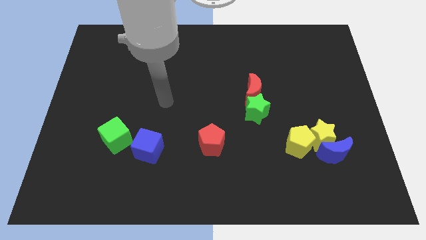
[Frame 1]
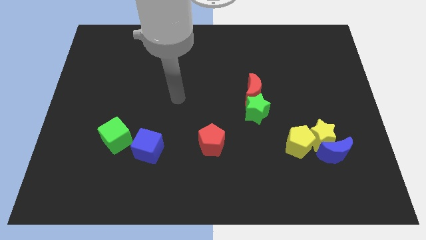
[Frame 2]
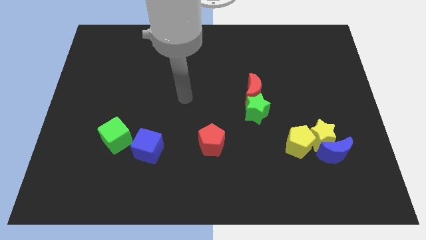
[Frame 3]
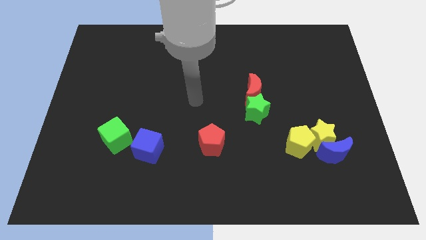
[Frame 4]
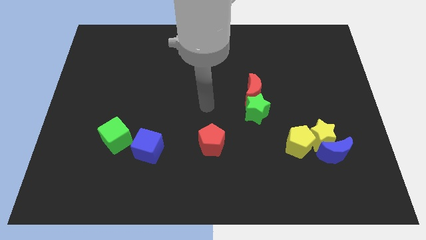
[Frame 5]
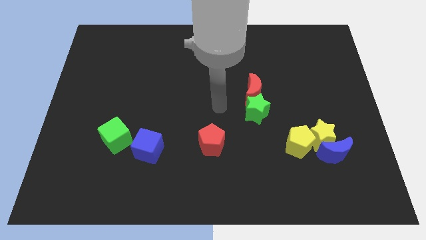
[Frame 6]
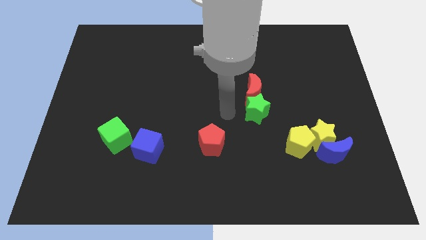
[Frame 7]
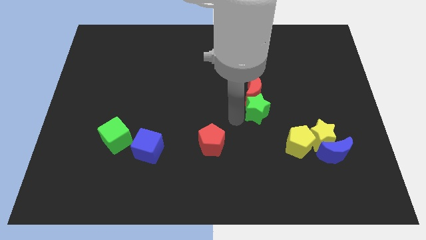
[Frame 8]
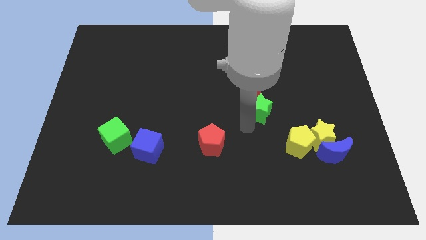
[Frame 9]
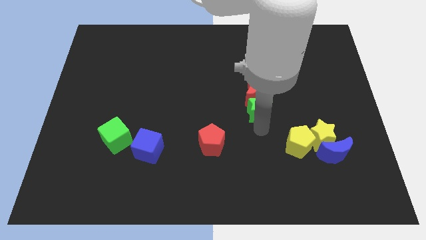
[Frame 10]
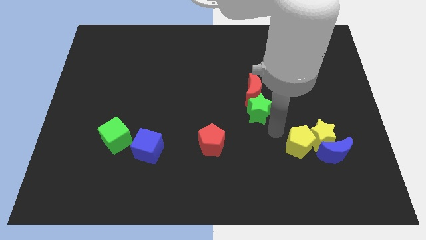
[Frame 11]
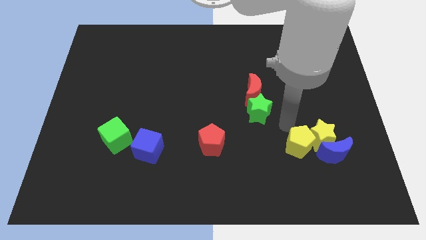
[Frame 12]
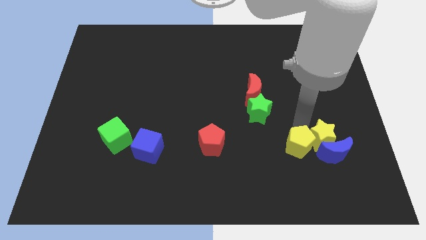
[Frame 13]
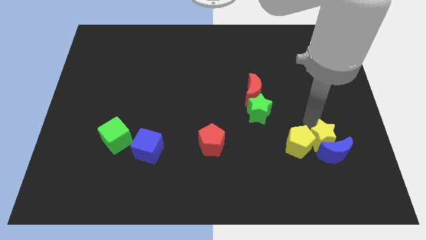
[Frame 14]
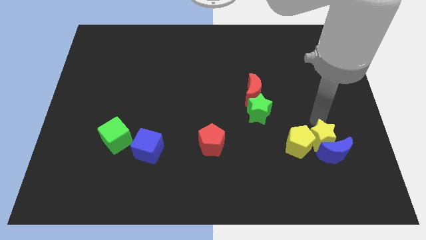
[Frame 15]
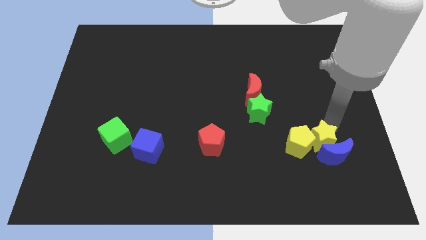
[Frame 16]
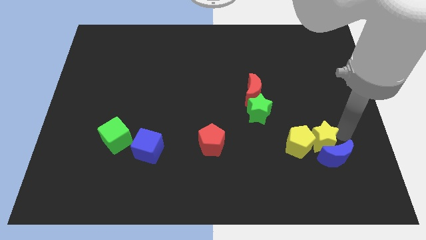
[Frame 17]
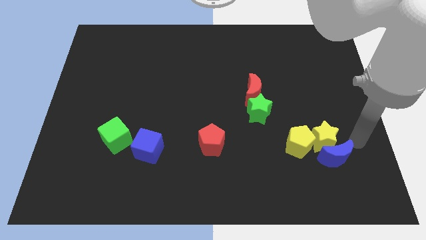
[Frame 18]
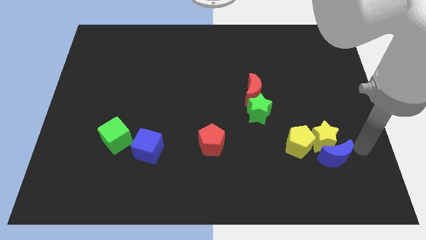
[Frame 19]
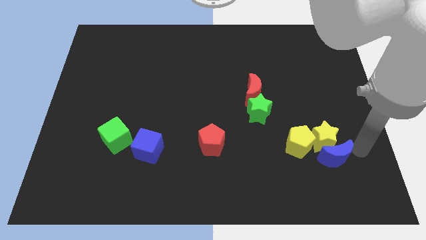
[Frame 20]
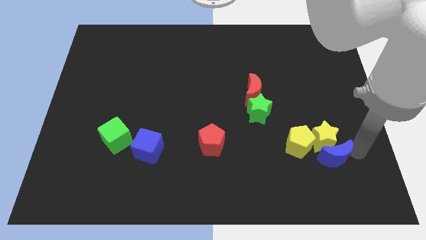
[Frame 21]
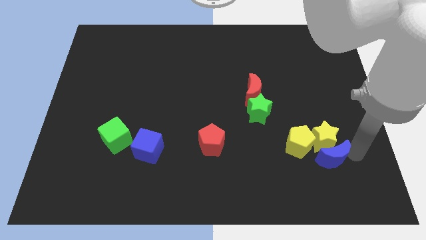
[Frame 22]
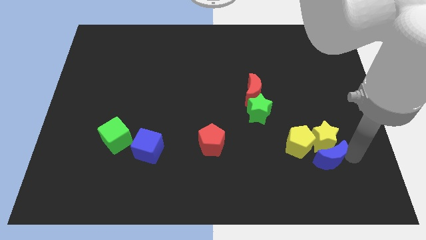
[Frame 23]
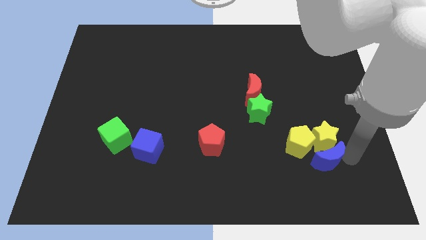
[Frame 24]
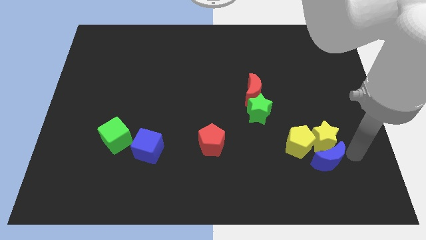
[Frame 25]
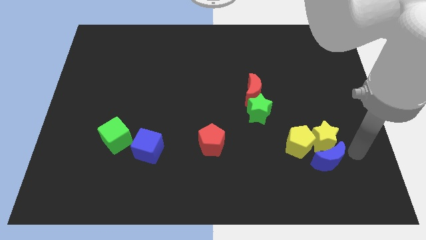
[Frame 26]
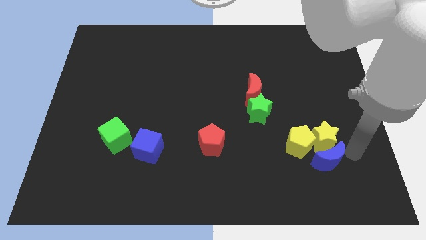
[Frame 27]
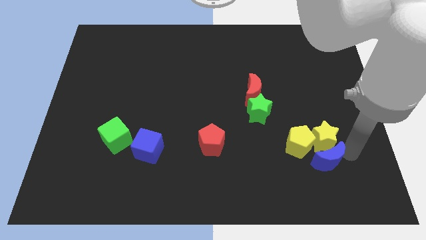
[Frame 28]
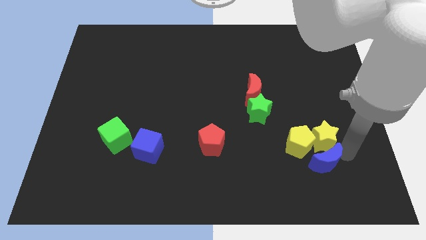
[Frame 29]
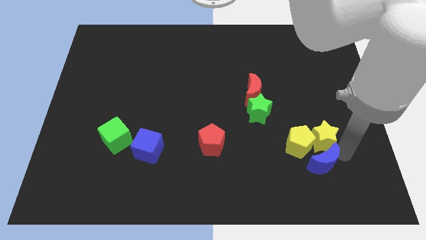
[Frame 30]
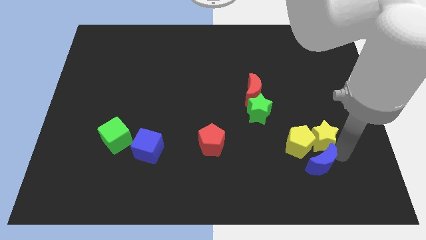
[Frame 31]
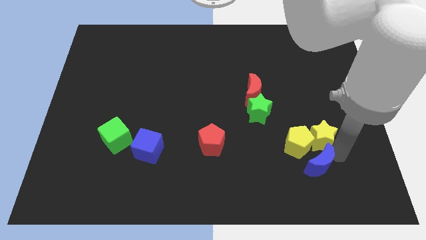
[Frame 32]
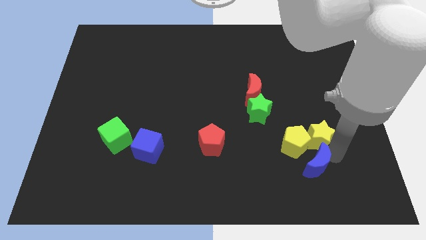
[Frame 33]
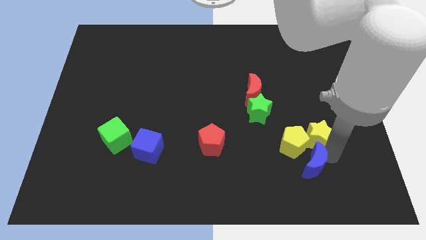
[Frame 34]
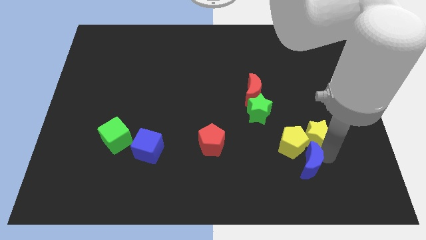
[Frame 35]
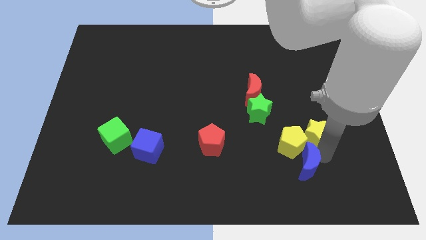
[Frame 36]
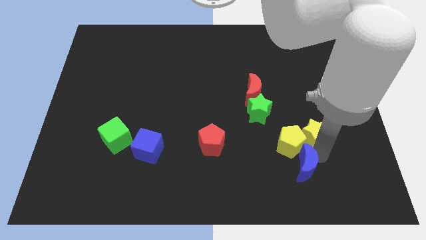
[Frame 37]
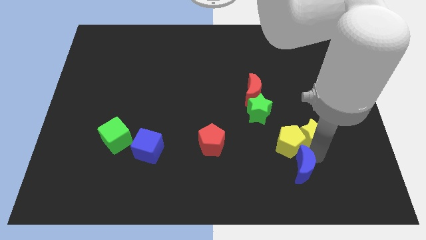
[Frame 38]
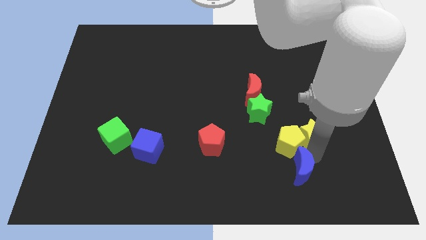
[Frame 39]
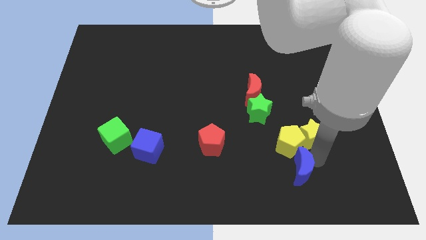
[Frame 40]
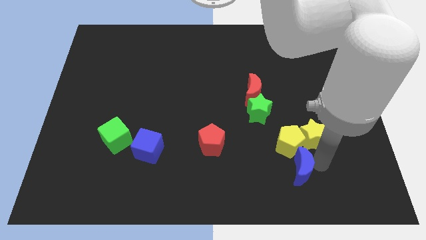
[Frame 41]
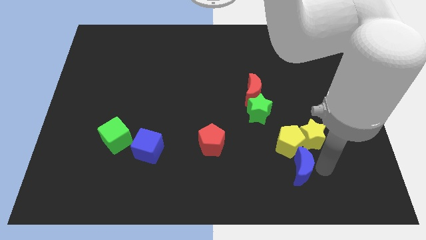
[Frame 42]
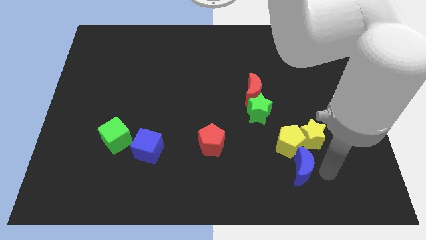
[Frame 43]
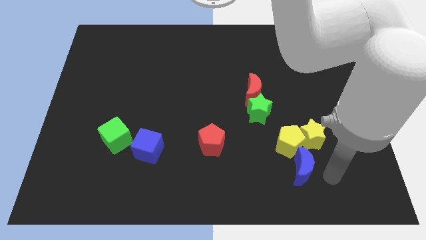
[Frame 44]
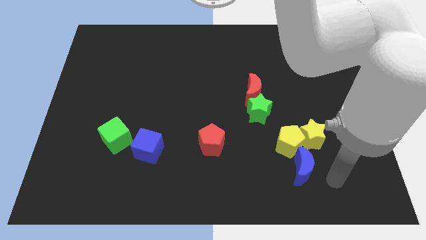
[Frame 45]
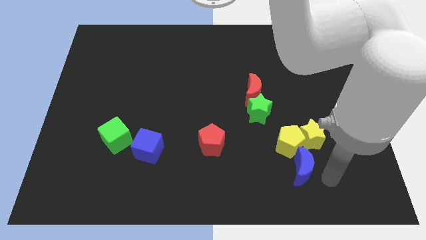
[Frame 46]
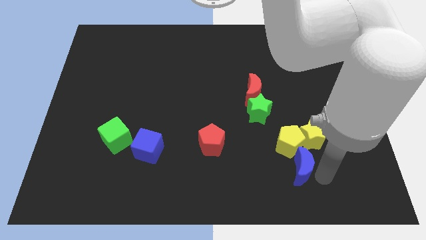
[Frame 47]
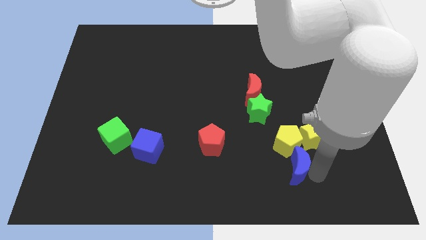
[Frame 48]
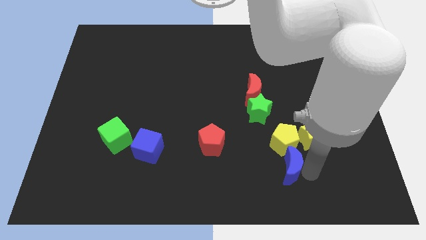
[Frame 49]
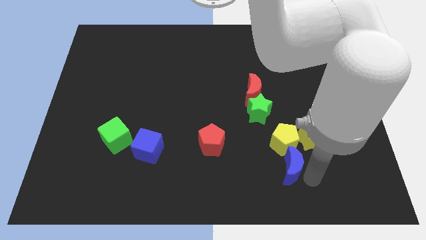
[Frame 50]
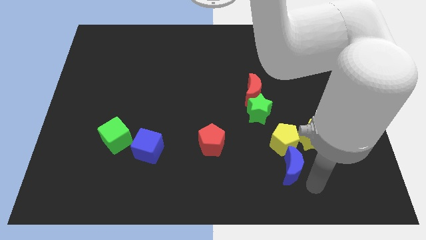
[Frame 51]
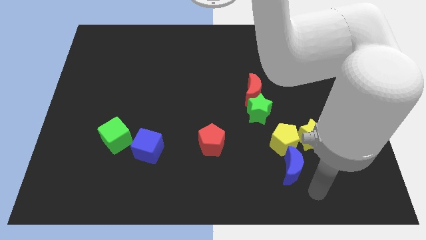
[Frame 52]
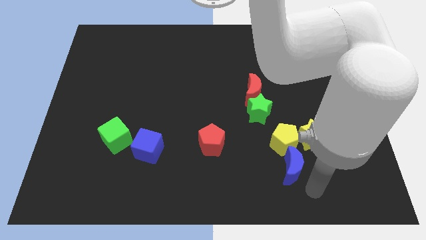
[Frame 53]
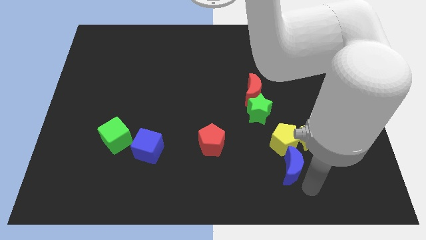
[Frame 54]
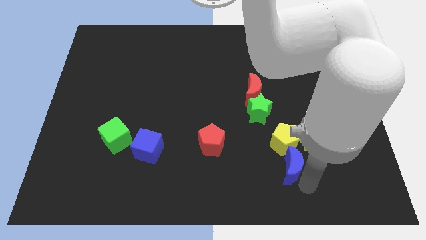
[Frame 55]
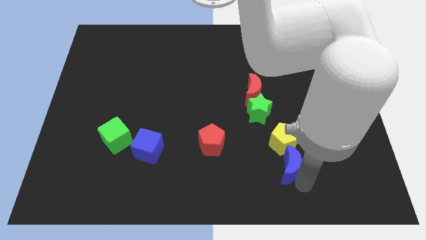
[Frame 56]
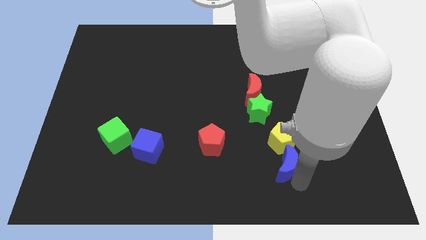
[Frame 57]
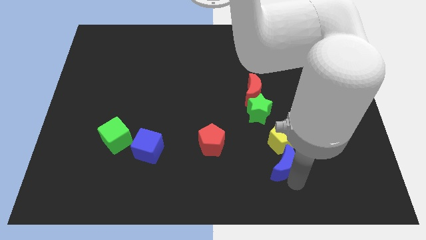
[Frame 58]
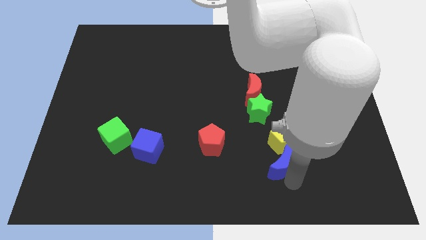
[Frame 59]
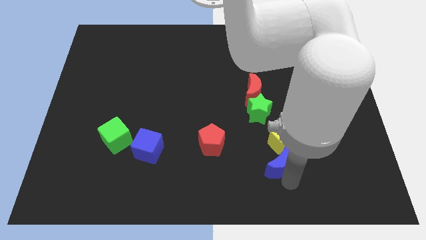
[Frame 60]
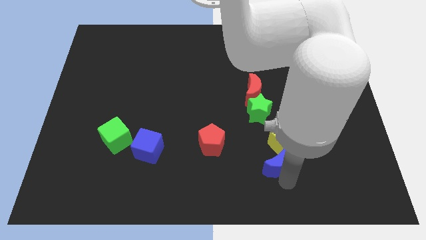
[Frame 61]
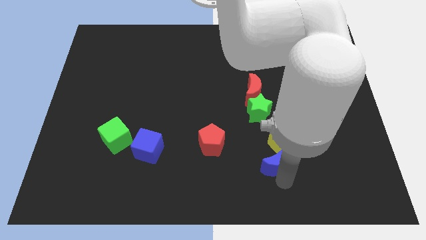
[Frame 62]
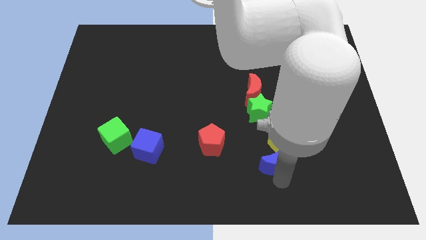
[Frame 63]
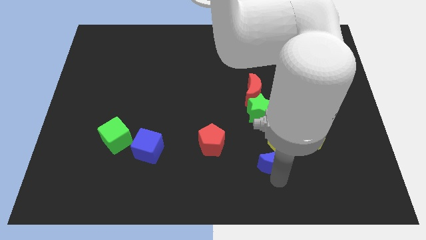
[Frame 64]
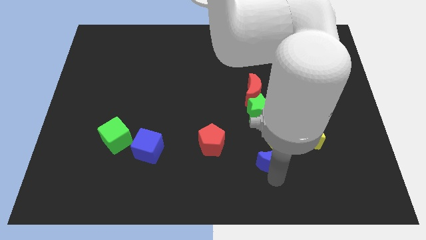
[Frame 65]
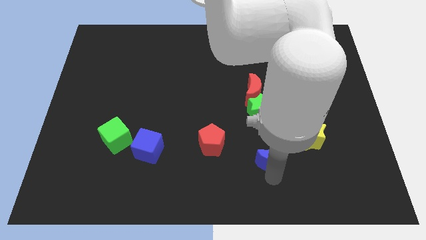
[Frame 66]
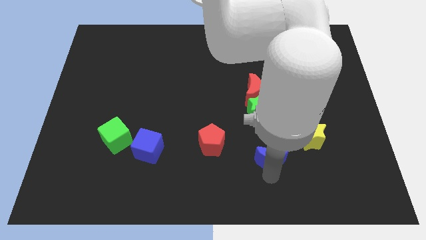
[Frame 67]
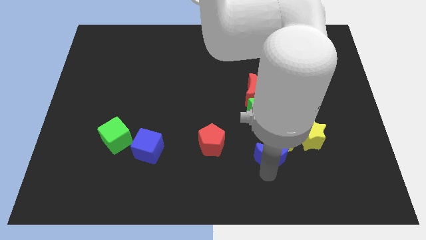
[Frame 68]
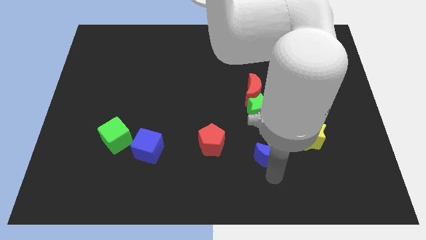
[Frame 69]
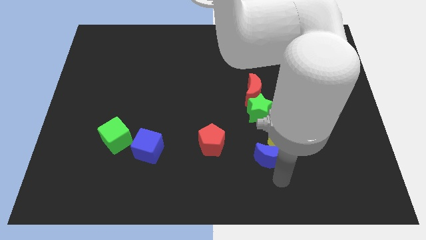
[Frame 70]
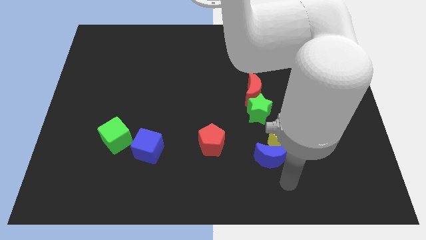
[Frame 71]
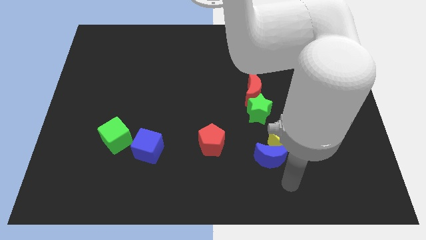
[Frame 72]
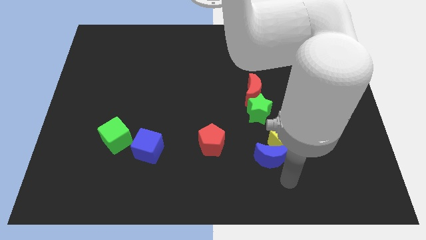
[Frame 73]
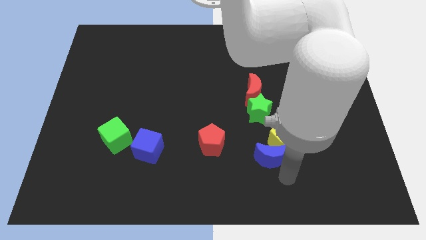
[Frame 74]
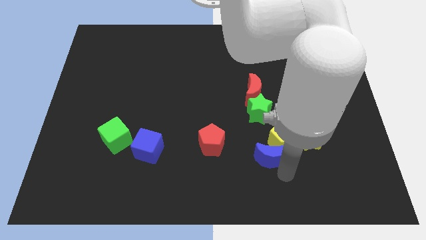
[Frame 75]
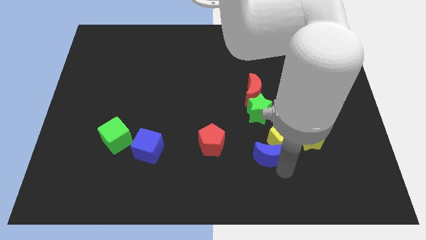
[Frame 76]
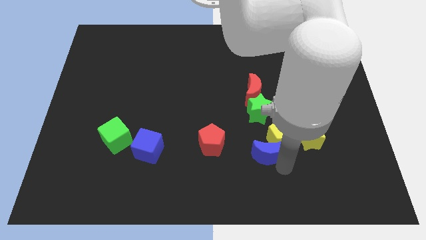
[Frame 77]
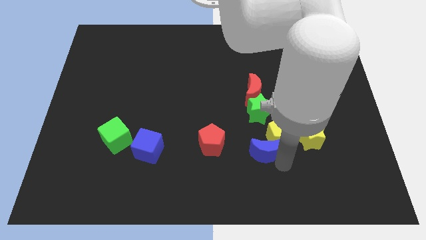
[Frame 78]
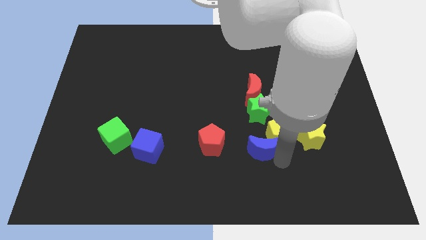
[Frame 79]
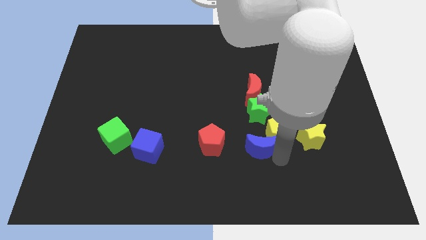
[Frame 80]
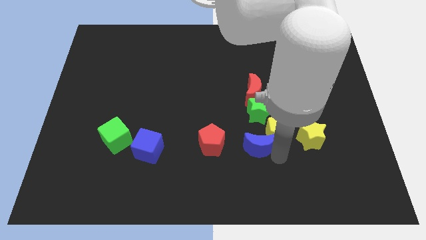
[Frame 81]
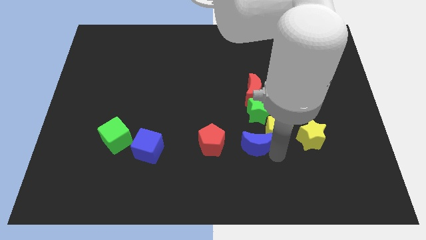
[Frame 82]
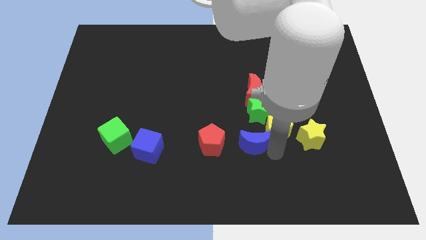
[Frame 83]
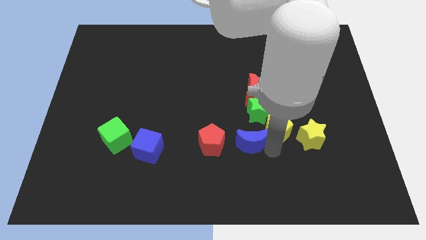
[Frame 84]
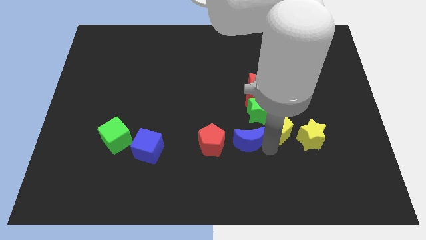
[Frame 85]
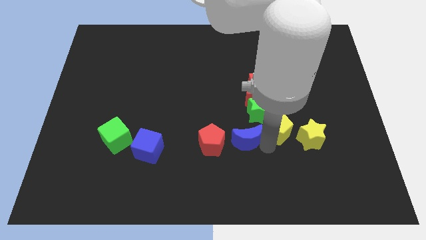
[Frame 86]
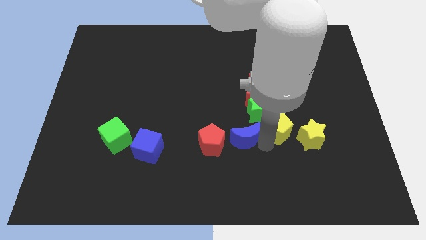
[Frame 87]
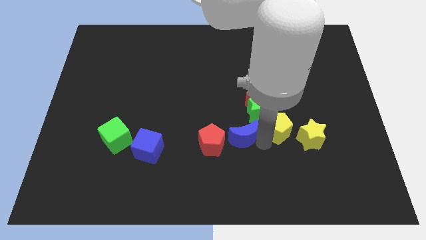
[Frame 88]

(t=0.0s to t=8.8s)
push the blue moon to the middle of the board
